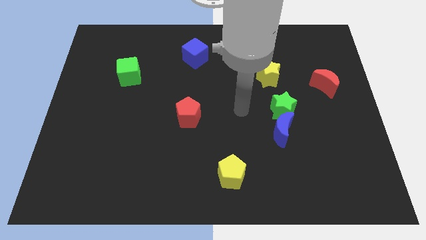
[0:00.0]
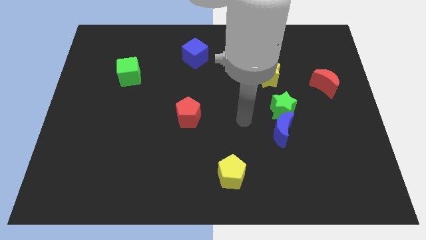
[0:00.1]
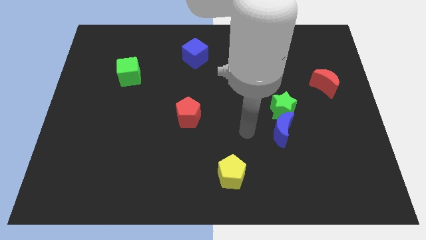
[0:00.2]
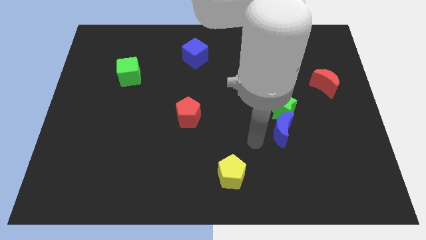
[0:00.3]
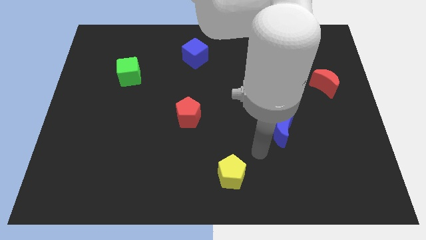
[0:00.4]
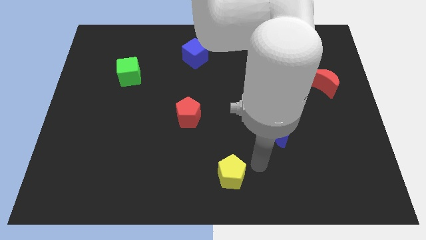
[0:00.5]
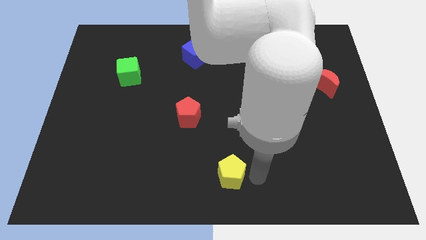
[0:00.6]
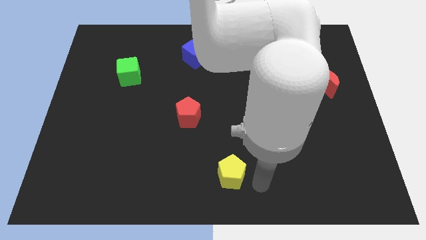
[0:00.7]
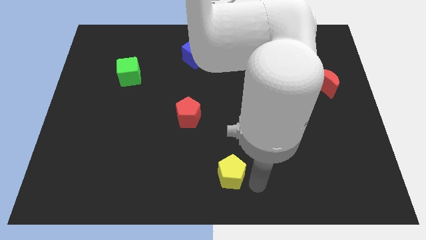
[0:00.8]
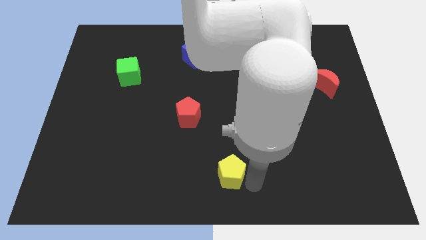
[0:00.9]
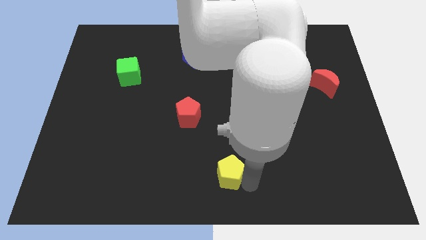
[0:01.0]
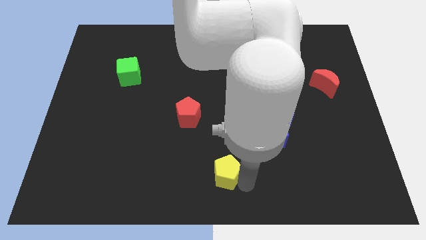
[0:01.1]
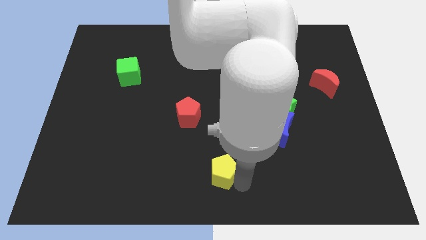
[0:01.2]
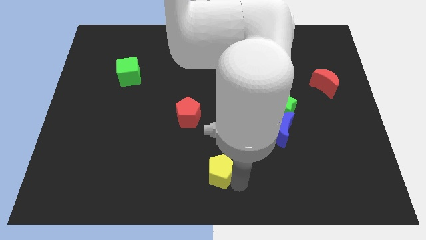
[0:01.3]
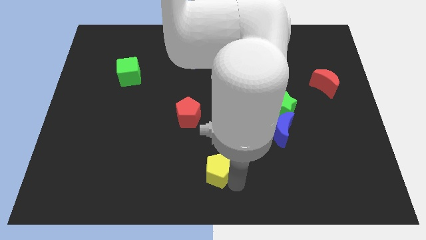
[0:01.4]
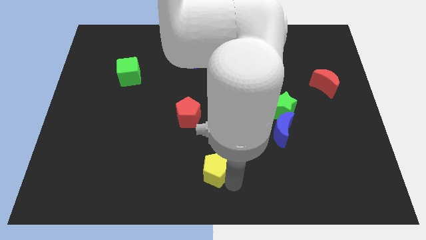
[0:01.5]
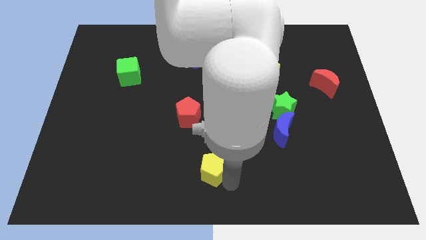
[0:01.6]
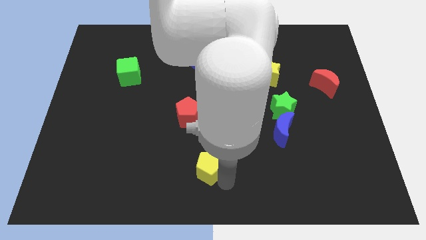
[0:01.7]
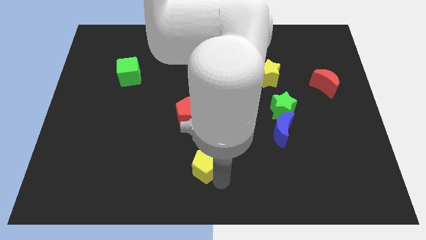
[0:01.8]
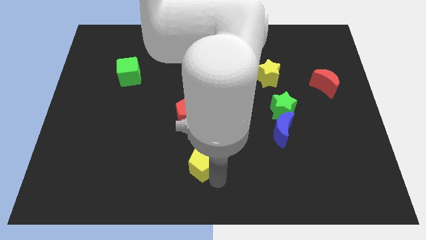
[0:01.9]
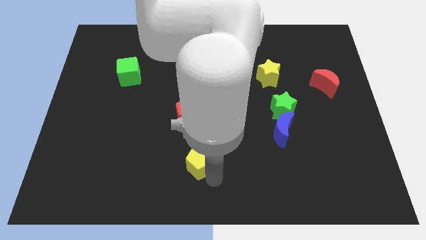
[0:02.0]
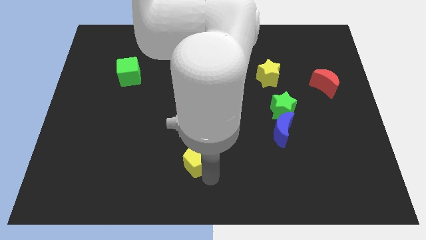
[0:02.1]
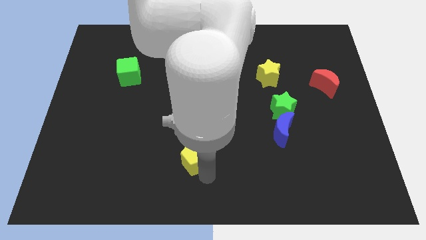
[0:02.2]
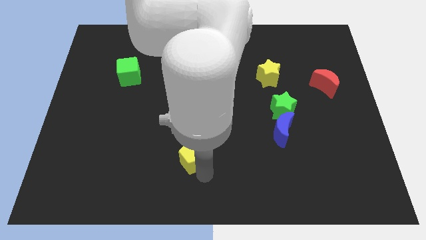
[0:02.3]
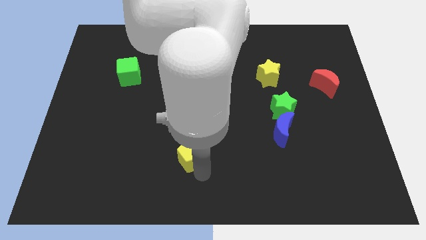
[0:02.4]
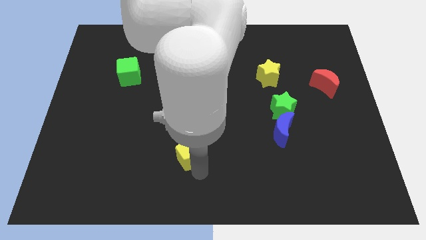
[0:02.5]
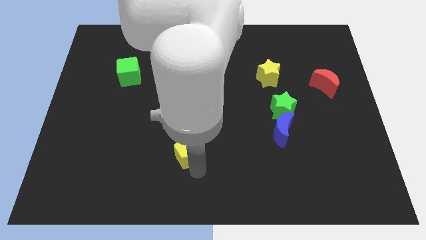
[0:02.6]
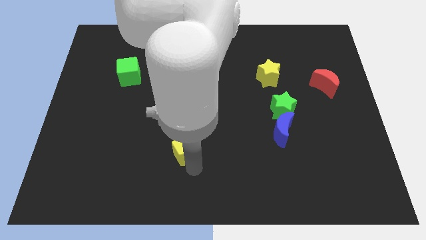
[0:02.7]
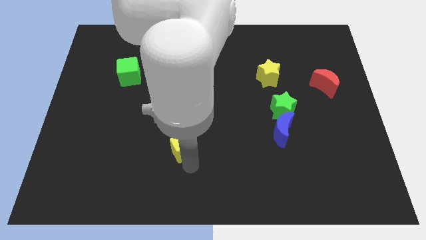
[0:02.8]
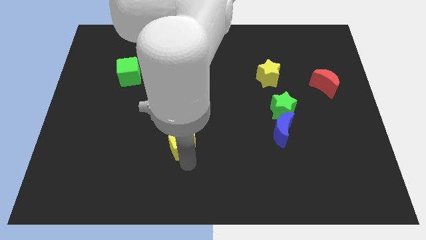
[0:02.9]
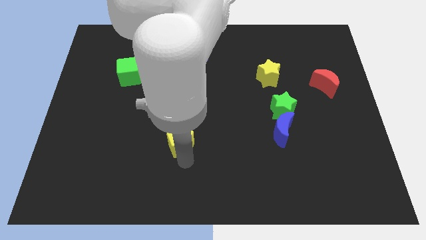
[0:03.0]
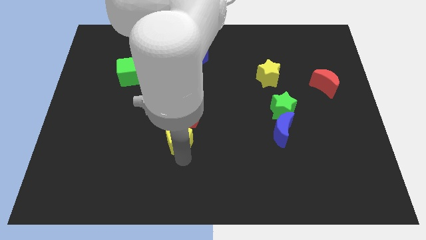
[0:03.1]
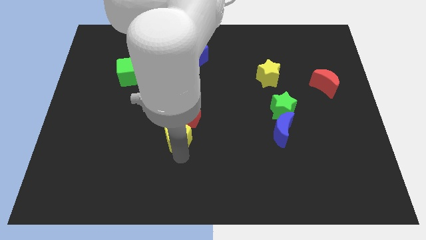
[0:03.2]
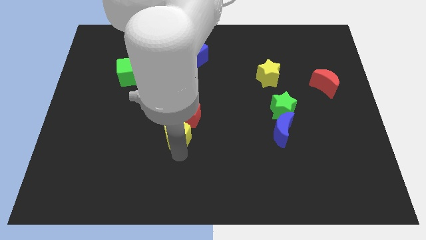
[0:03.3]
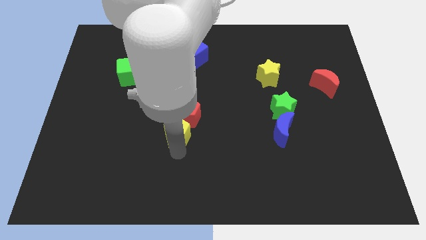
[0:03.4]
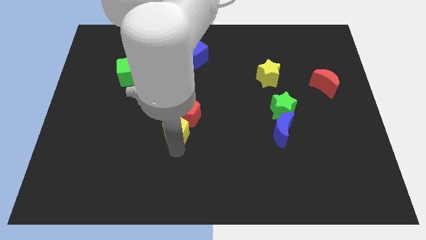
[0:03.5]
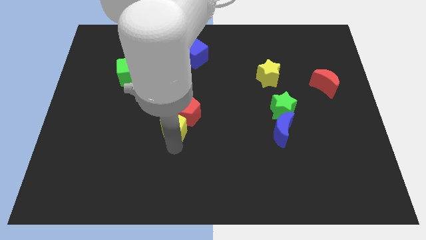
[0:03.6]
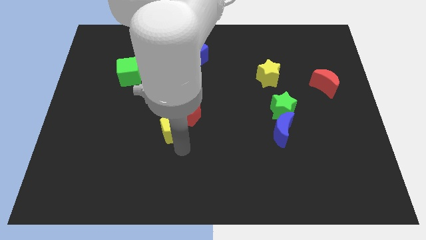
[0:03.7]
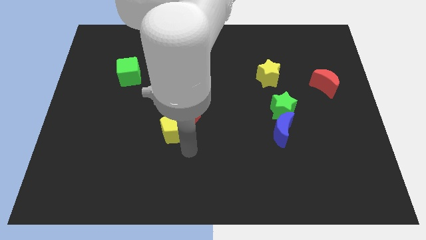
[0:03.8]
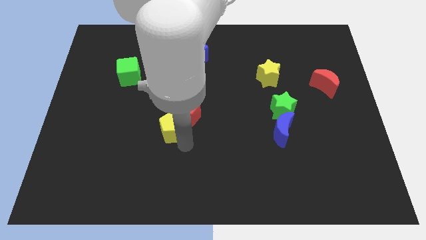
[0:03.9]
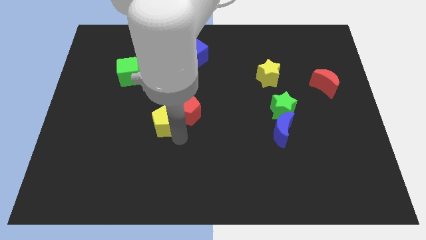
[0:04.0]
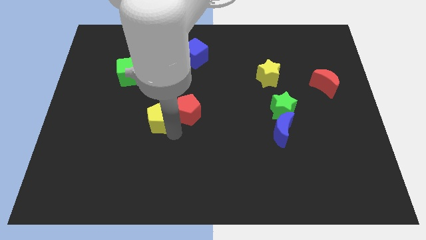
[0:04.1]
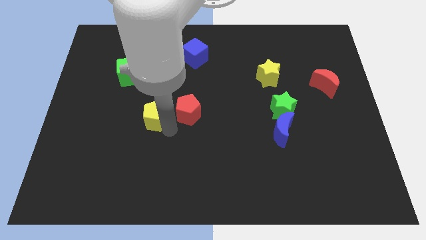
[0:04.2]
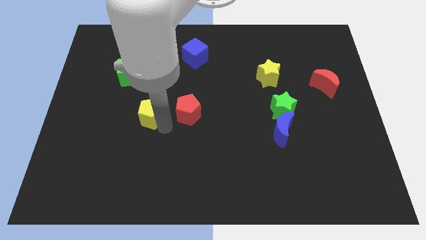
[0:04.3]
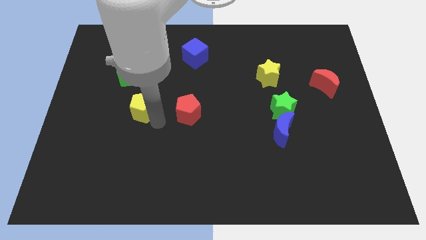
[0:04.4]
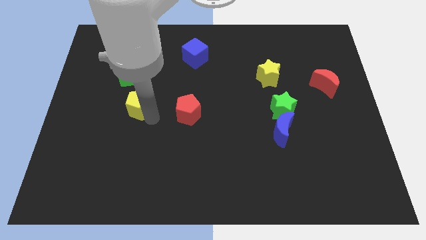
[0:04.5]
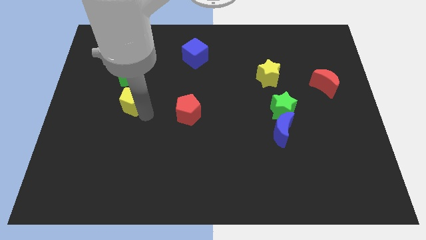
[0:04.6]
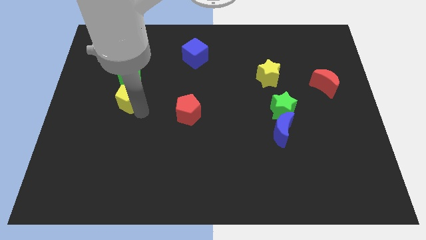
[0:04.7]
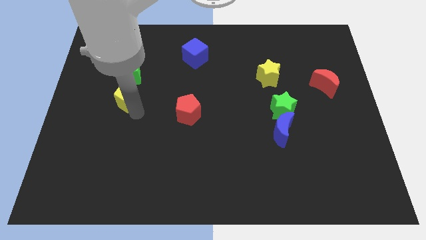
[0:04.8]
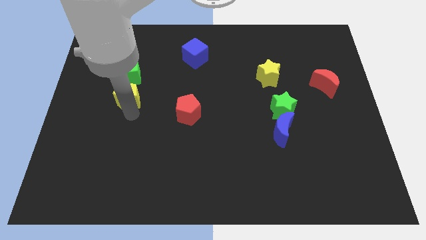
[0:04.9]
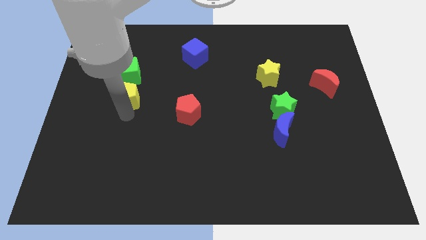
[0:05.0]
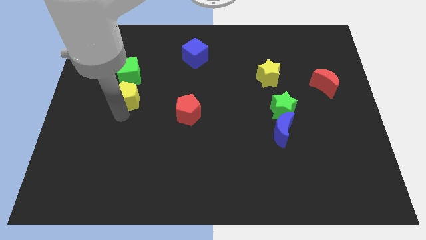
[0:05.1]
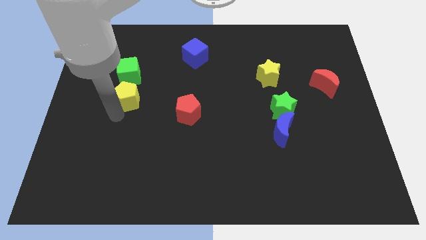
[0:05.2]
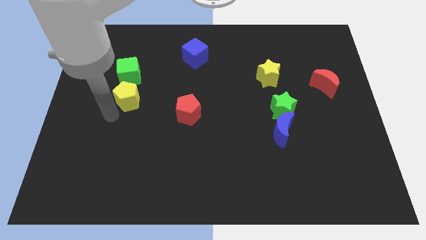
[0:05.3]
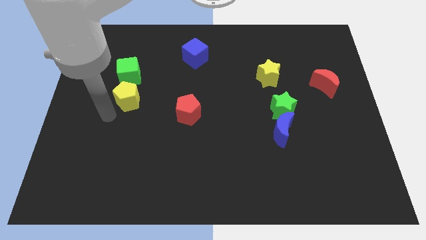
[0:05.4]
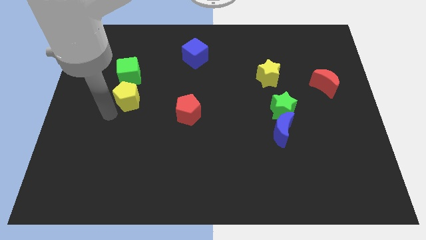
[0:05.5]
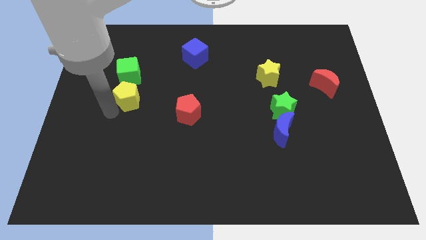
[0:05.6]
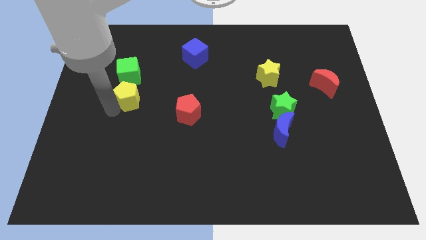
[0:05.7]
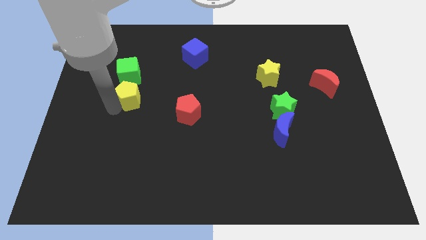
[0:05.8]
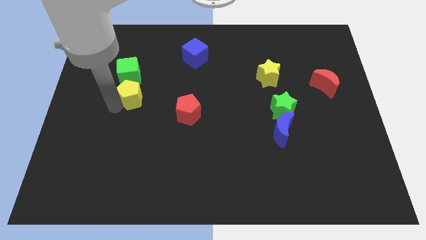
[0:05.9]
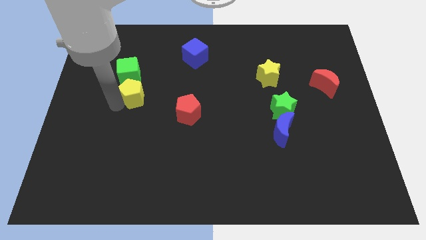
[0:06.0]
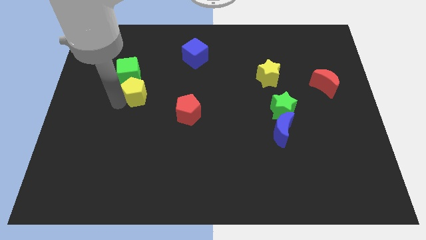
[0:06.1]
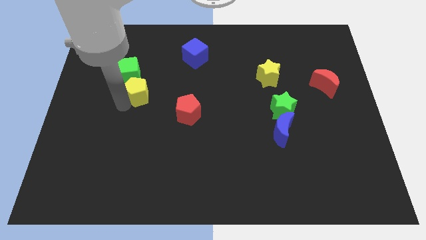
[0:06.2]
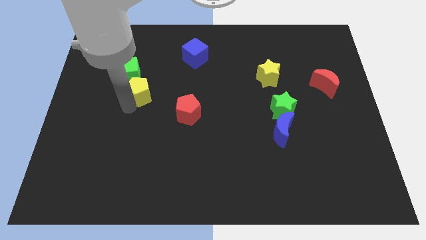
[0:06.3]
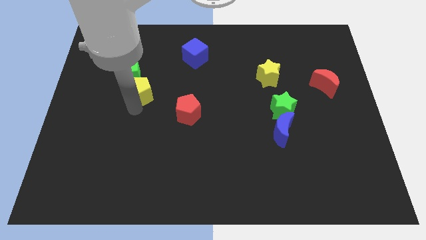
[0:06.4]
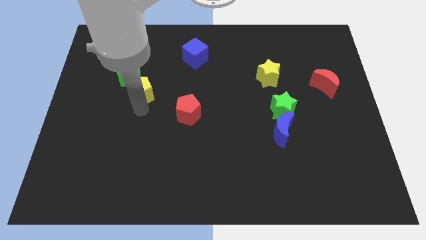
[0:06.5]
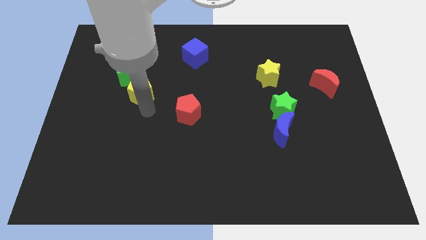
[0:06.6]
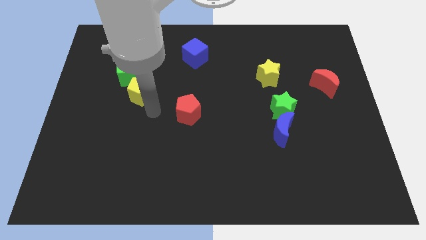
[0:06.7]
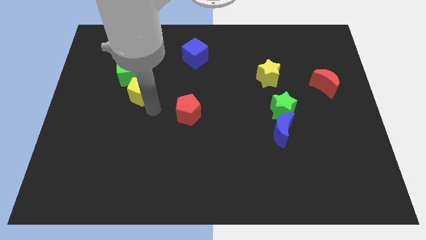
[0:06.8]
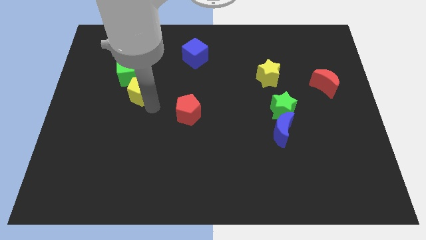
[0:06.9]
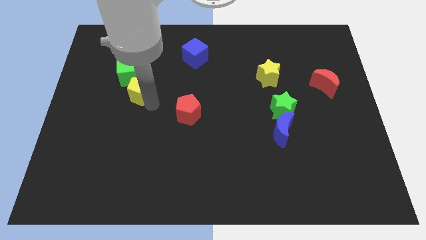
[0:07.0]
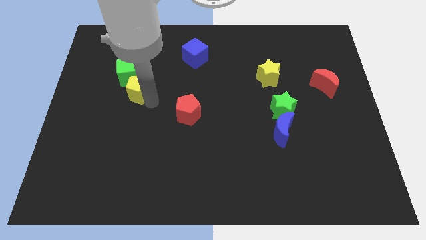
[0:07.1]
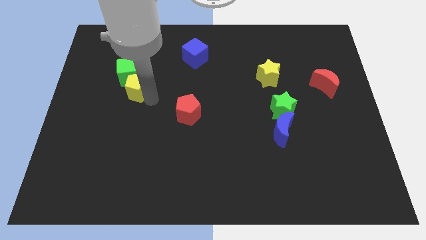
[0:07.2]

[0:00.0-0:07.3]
slide the yellow pentagon to the green cube

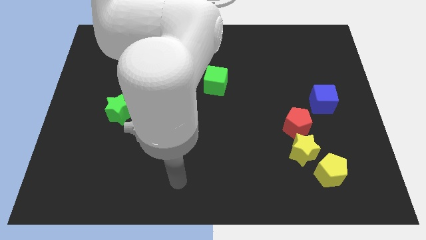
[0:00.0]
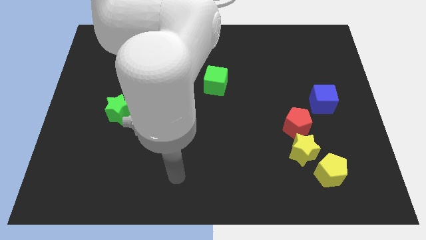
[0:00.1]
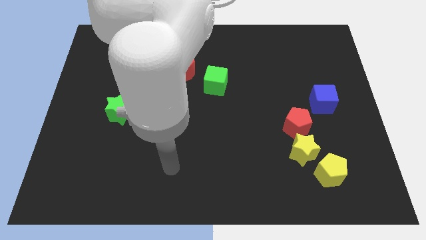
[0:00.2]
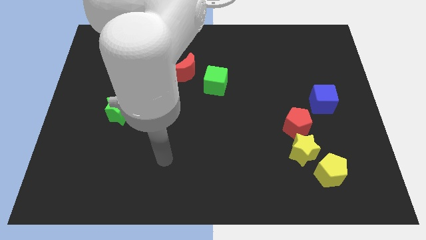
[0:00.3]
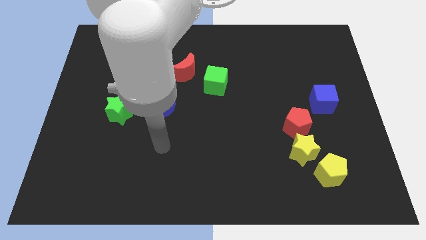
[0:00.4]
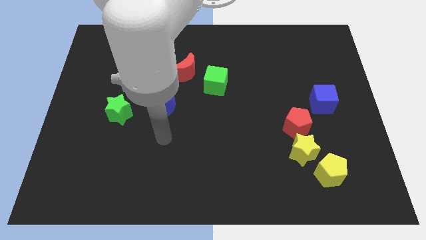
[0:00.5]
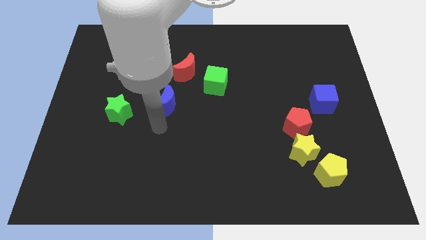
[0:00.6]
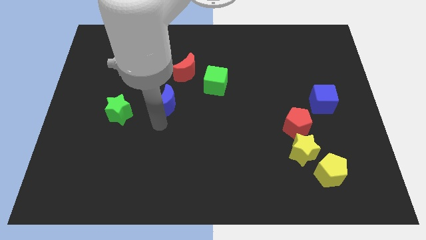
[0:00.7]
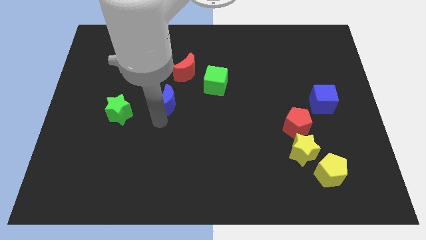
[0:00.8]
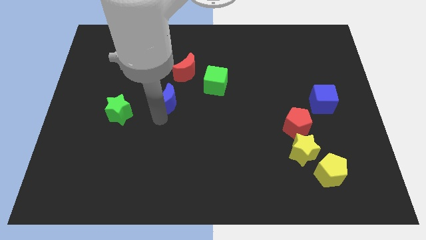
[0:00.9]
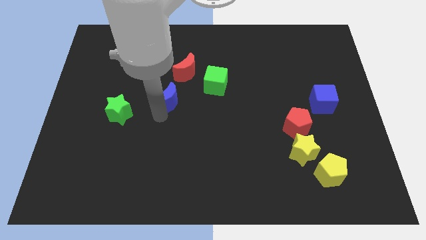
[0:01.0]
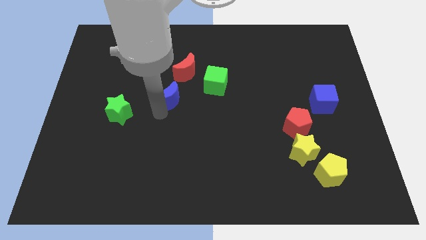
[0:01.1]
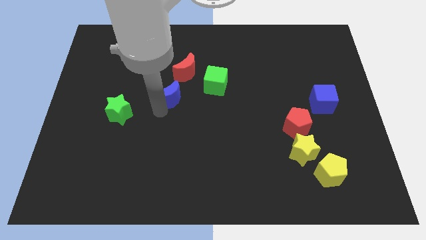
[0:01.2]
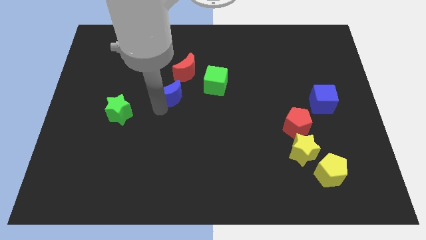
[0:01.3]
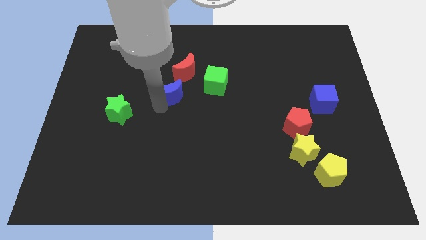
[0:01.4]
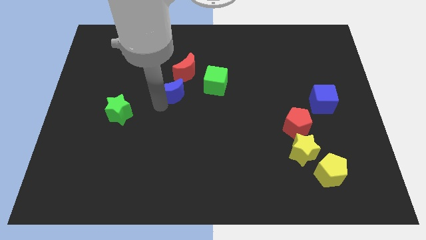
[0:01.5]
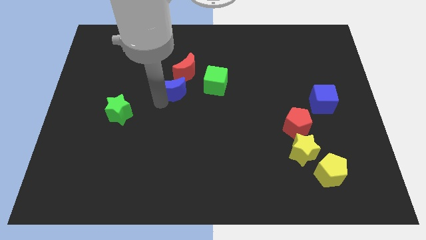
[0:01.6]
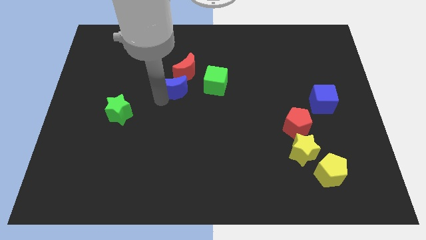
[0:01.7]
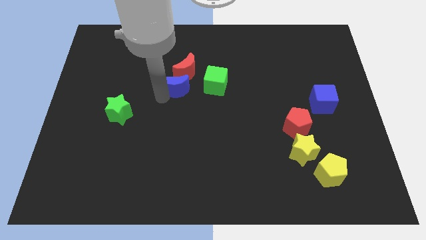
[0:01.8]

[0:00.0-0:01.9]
slide the blue moon to the red moon
